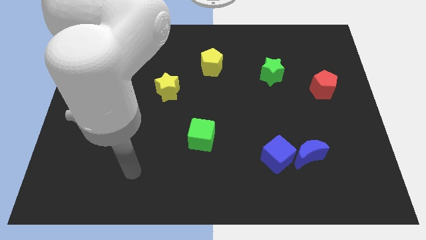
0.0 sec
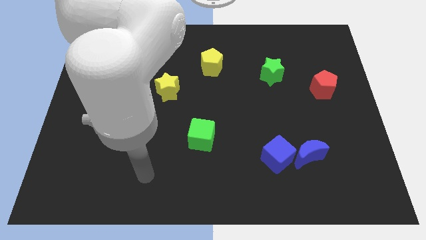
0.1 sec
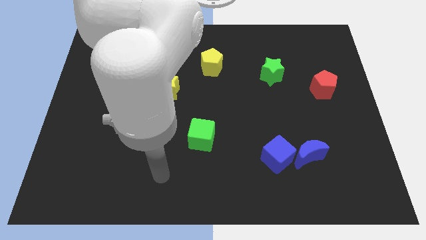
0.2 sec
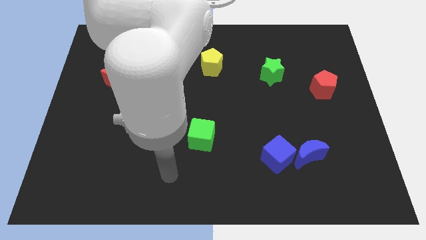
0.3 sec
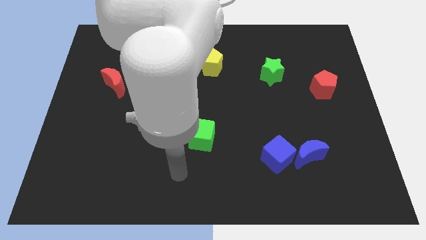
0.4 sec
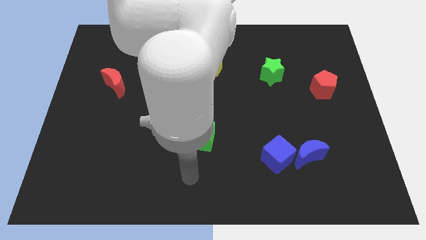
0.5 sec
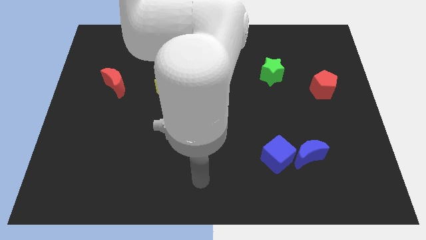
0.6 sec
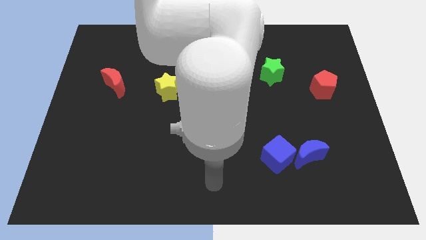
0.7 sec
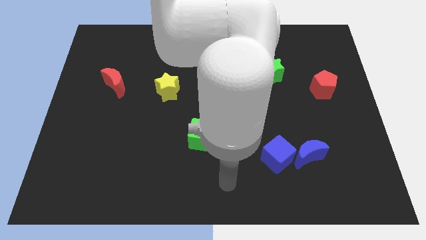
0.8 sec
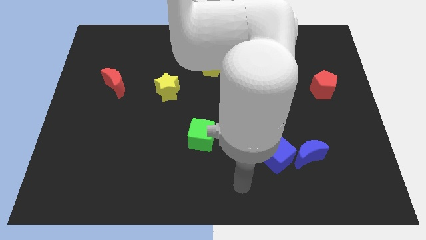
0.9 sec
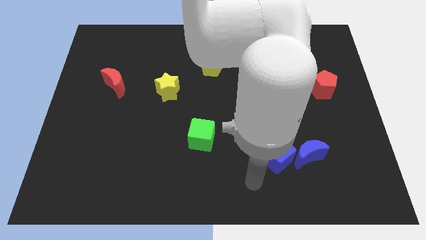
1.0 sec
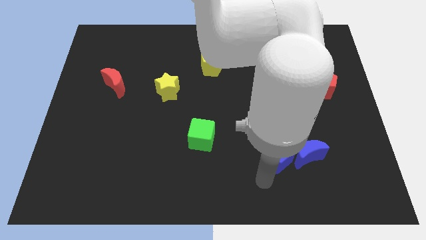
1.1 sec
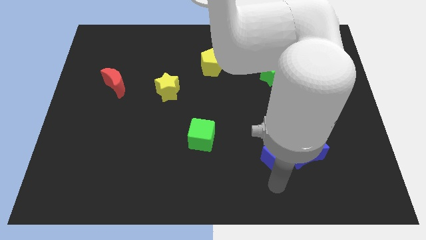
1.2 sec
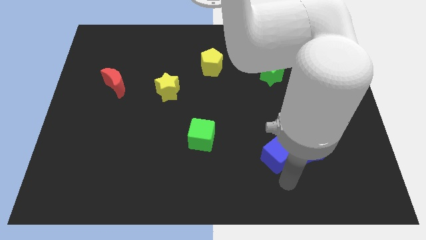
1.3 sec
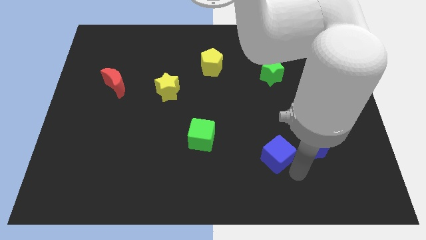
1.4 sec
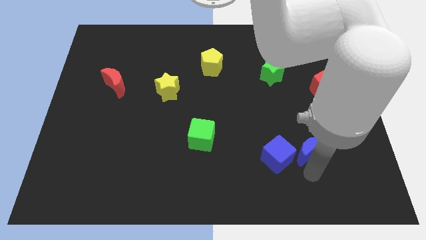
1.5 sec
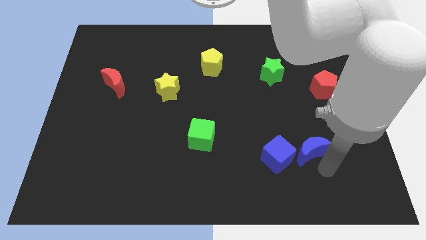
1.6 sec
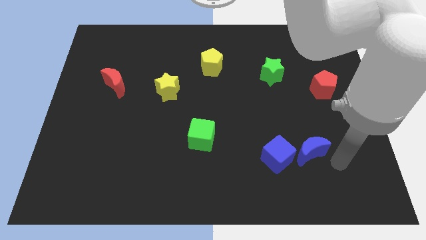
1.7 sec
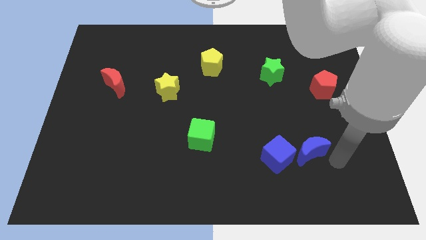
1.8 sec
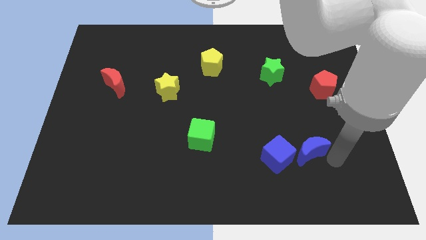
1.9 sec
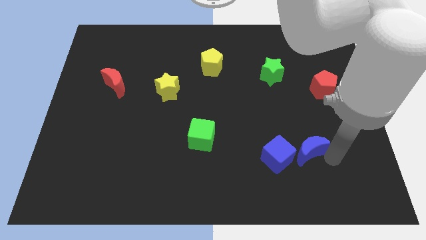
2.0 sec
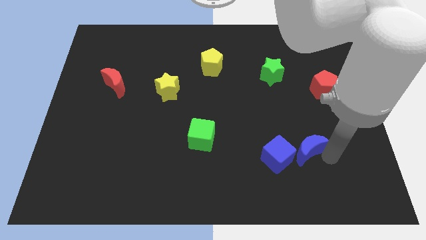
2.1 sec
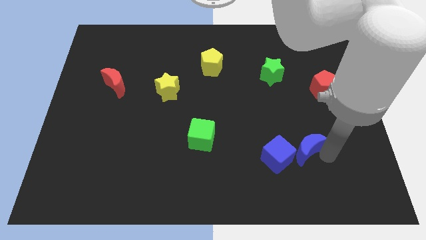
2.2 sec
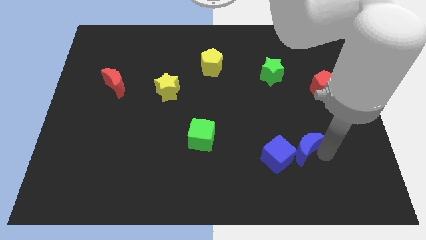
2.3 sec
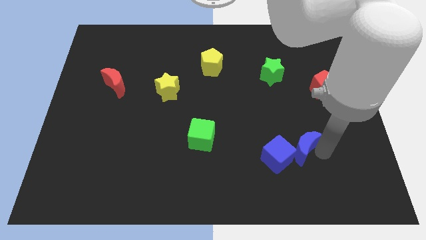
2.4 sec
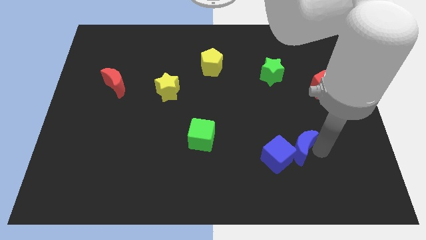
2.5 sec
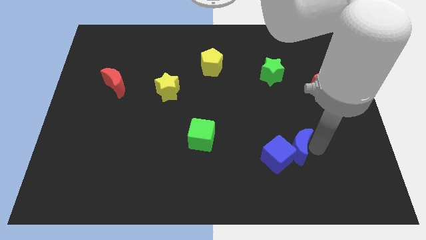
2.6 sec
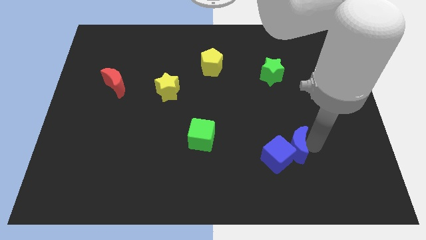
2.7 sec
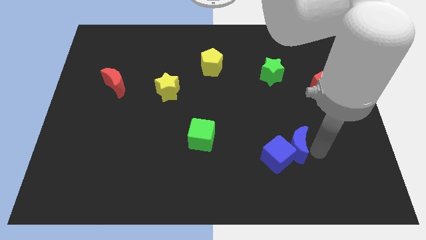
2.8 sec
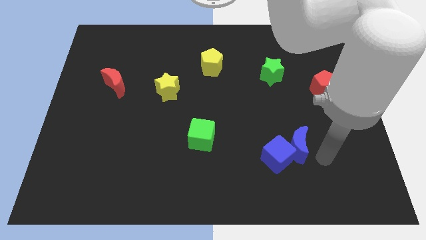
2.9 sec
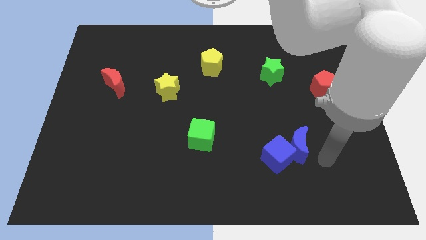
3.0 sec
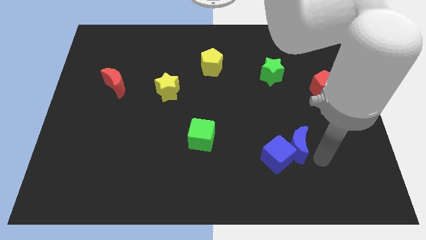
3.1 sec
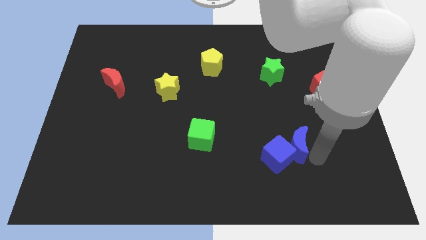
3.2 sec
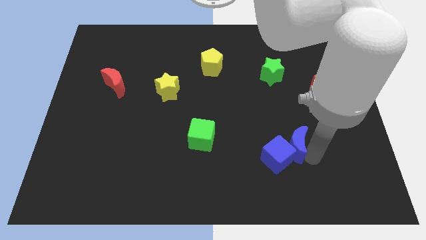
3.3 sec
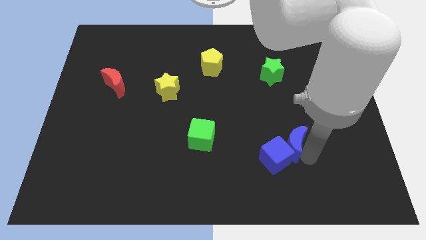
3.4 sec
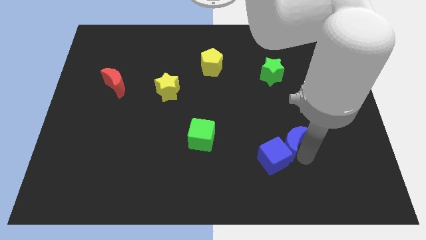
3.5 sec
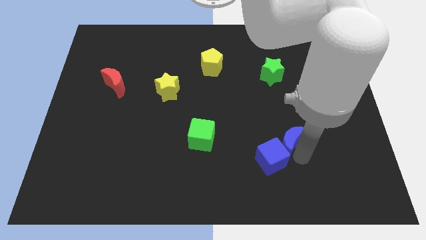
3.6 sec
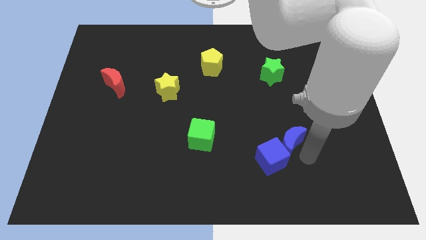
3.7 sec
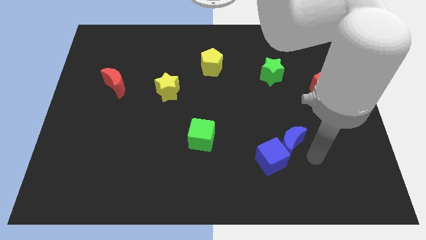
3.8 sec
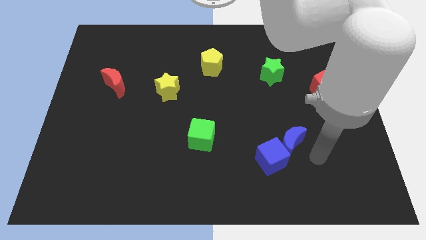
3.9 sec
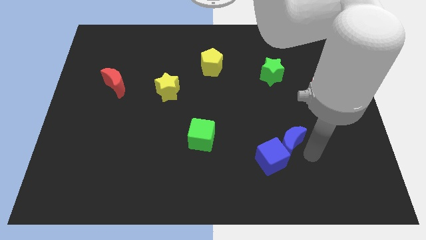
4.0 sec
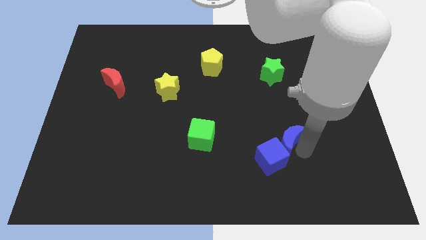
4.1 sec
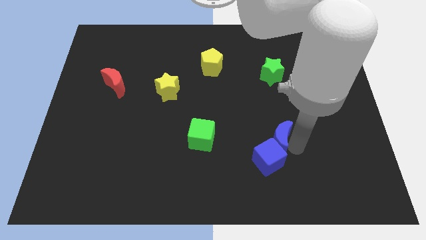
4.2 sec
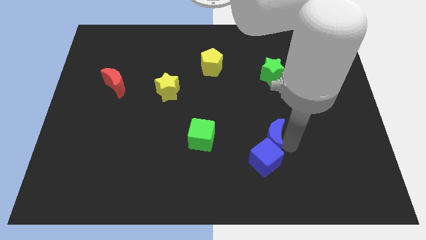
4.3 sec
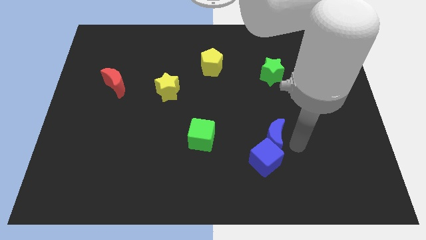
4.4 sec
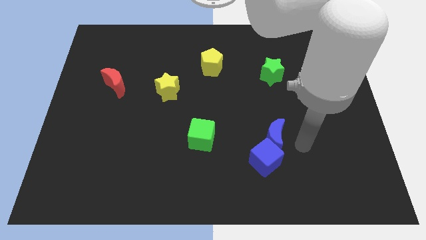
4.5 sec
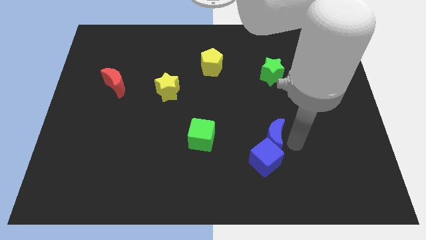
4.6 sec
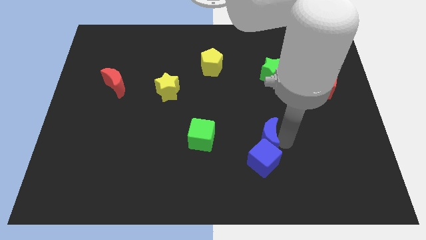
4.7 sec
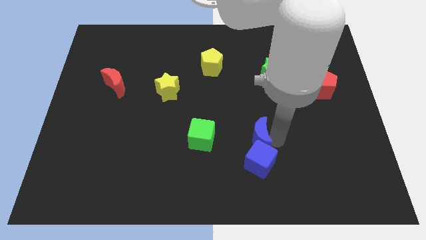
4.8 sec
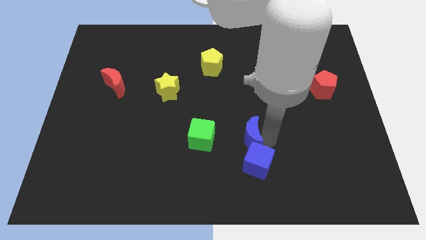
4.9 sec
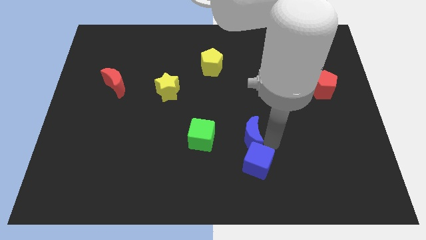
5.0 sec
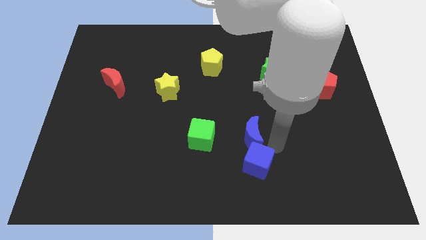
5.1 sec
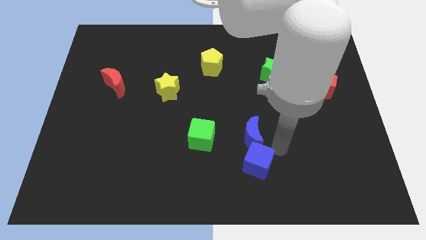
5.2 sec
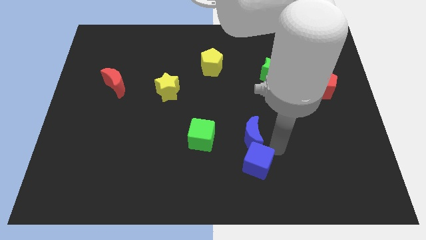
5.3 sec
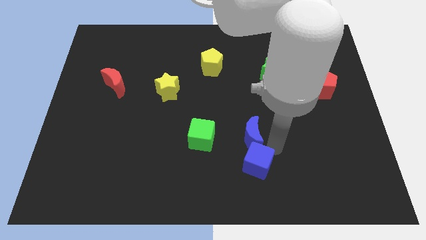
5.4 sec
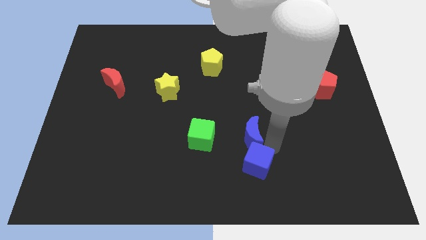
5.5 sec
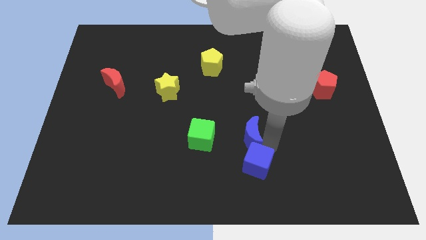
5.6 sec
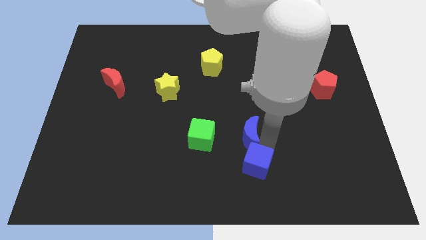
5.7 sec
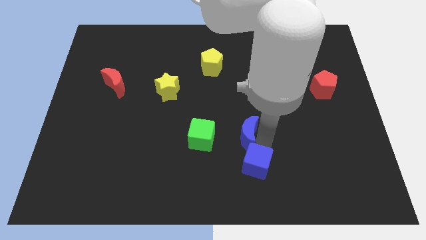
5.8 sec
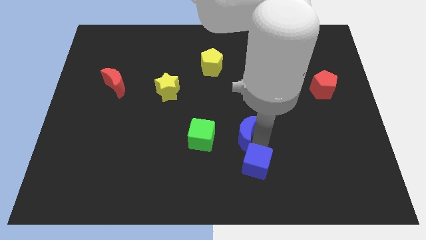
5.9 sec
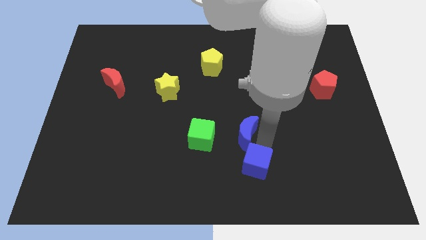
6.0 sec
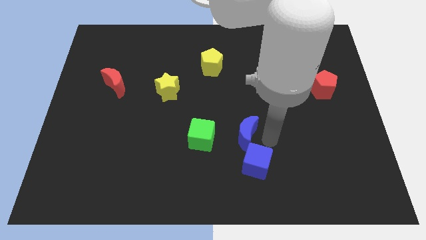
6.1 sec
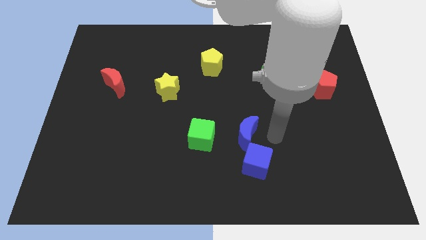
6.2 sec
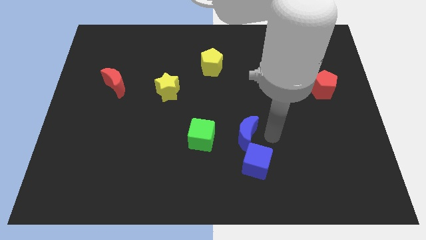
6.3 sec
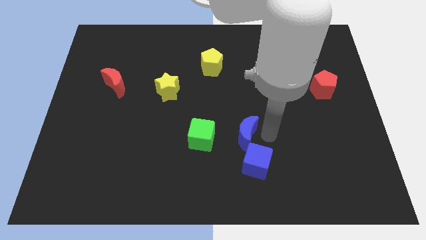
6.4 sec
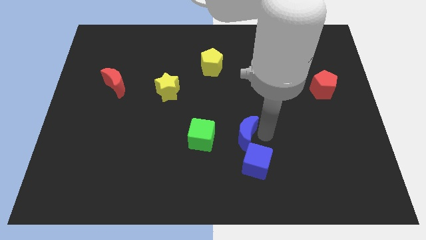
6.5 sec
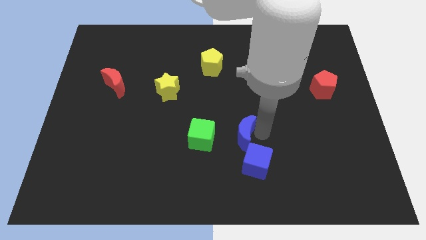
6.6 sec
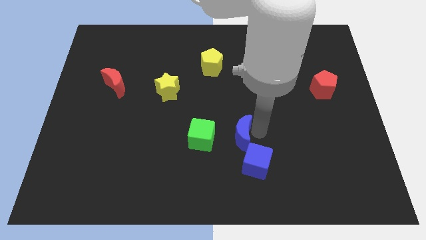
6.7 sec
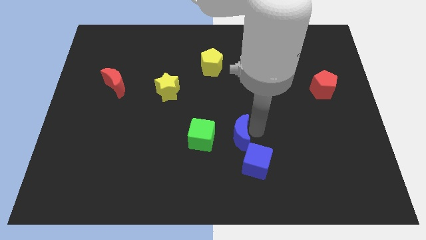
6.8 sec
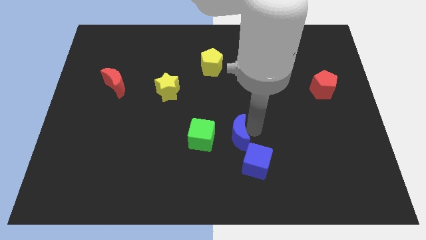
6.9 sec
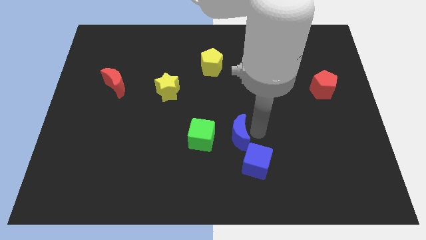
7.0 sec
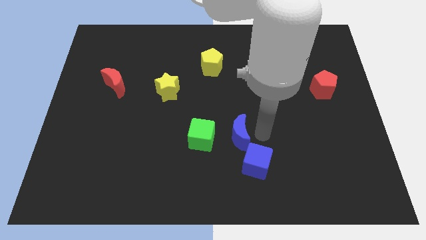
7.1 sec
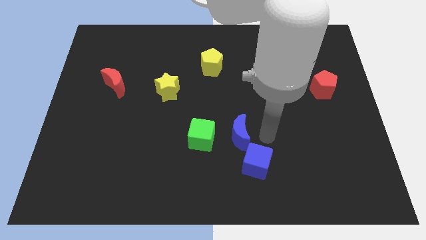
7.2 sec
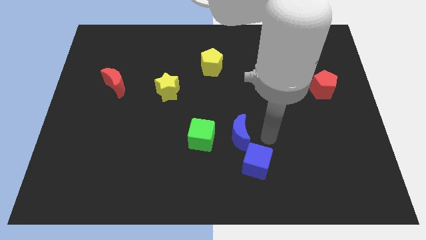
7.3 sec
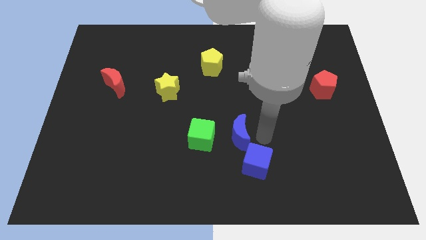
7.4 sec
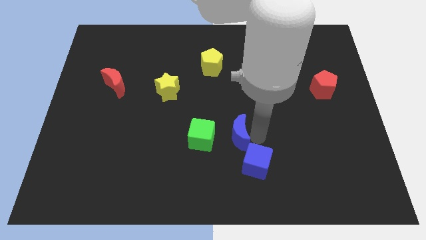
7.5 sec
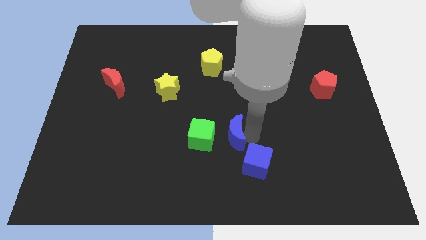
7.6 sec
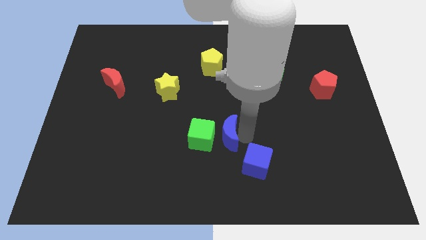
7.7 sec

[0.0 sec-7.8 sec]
move the blue moon close to the green cube

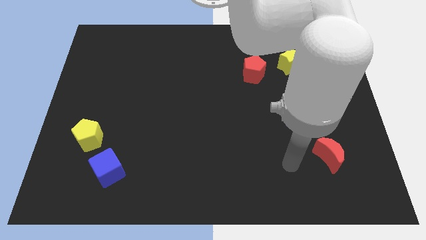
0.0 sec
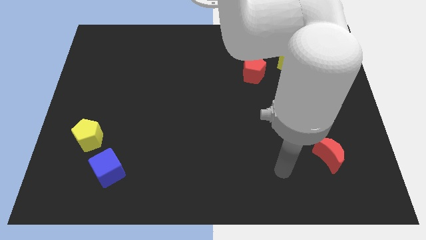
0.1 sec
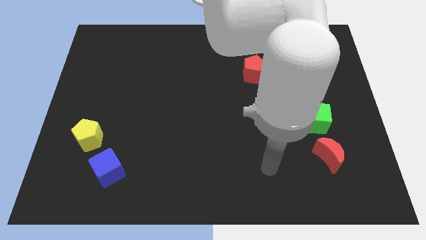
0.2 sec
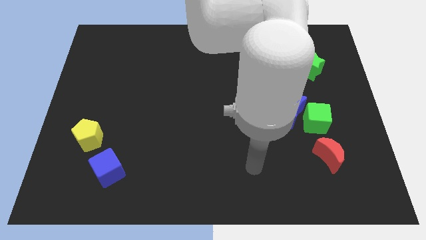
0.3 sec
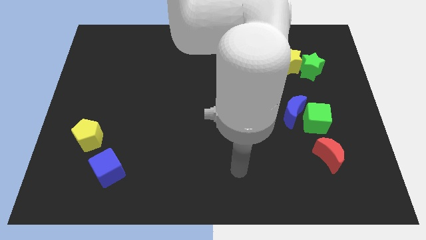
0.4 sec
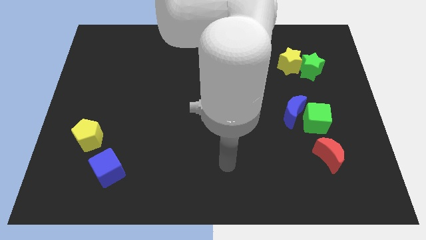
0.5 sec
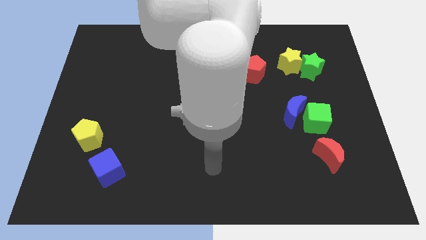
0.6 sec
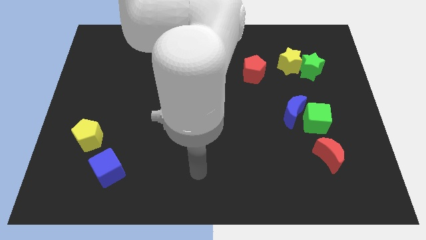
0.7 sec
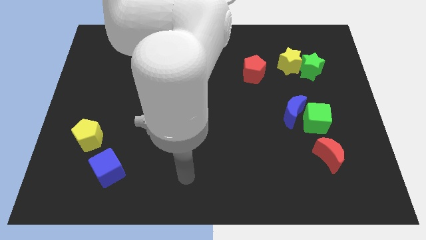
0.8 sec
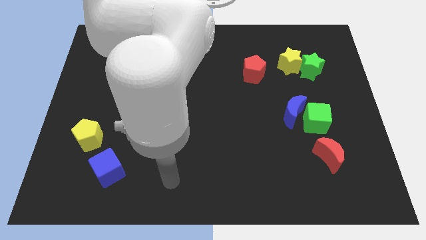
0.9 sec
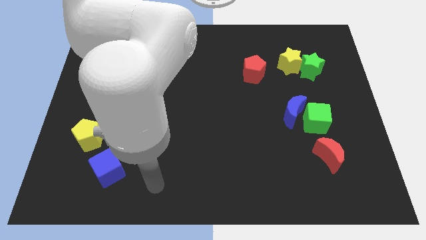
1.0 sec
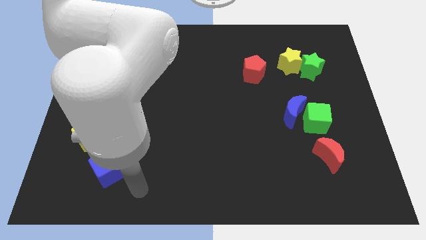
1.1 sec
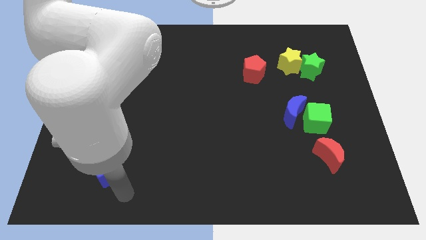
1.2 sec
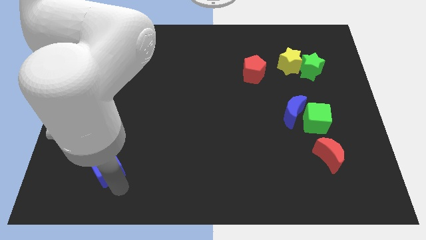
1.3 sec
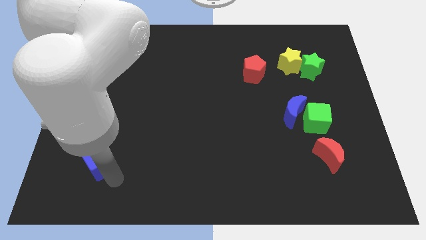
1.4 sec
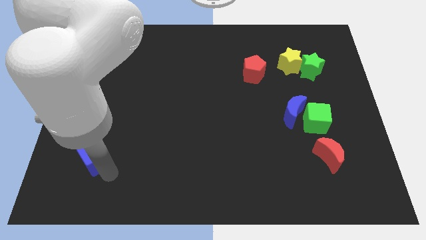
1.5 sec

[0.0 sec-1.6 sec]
push the blue cube close to the yellow pentagon
